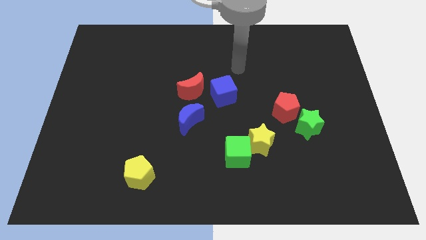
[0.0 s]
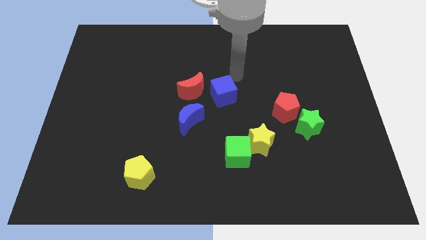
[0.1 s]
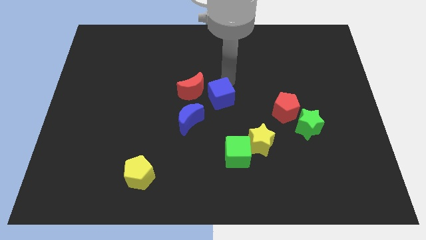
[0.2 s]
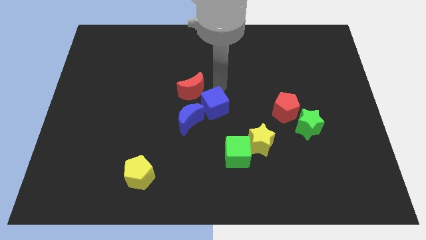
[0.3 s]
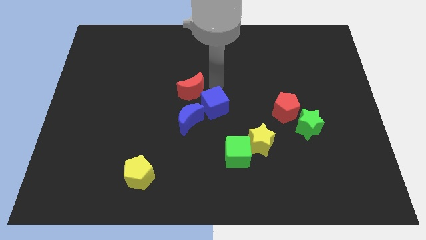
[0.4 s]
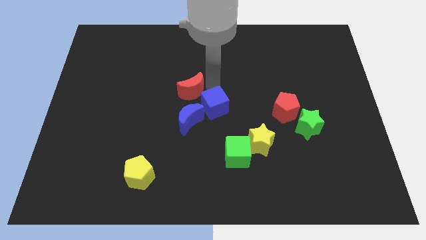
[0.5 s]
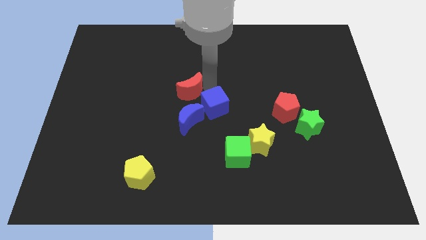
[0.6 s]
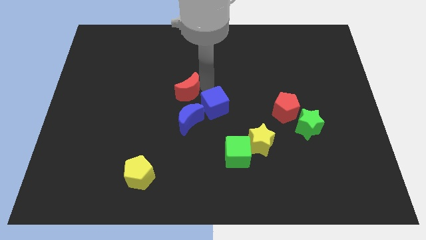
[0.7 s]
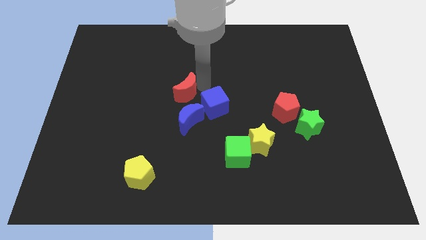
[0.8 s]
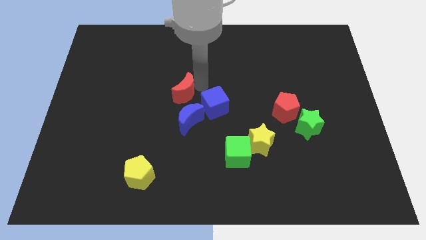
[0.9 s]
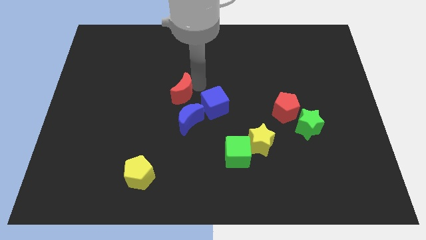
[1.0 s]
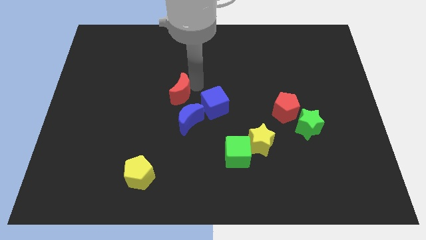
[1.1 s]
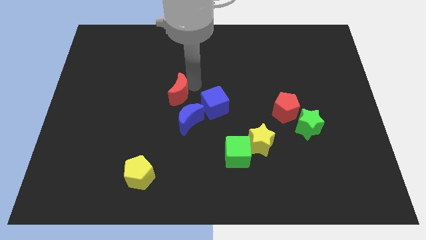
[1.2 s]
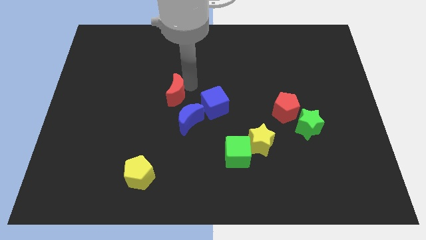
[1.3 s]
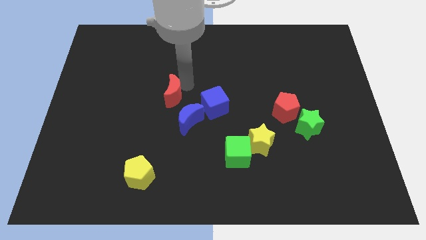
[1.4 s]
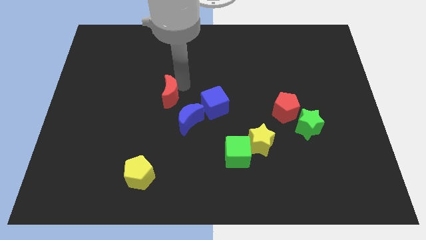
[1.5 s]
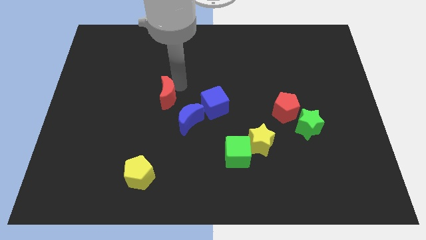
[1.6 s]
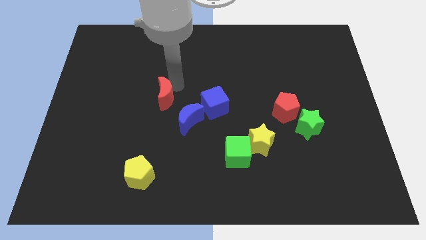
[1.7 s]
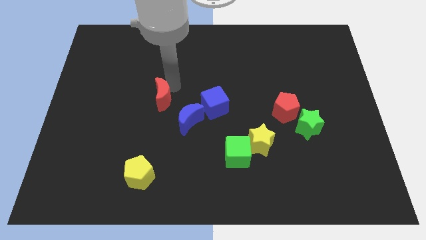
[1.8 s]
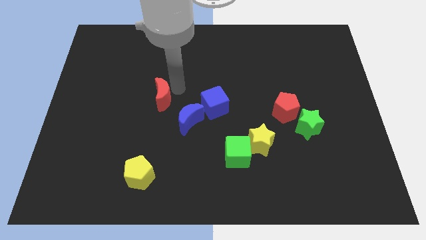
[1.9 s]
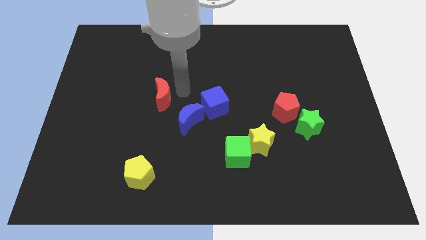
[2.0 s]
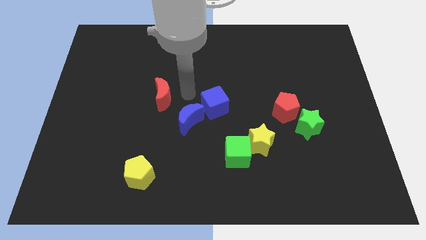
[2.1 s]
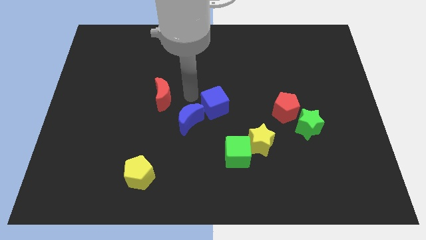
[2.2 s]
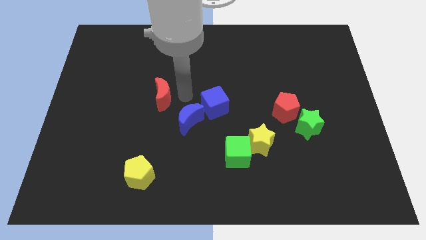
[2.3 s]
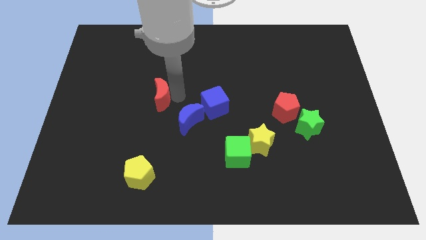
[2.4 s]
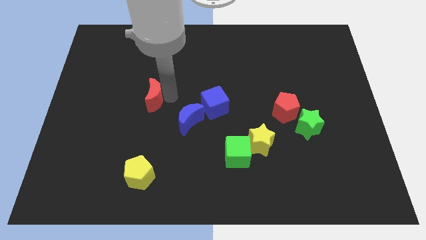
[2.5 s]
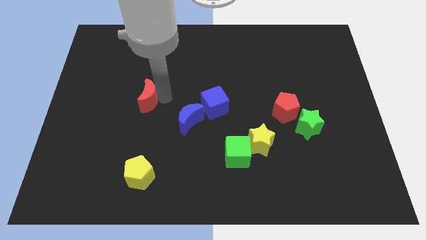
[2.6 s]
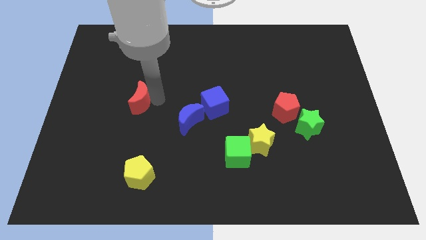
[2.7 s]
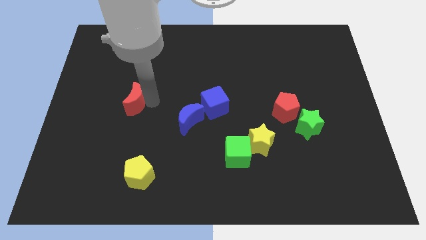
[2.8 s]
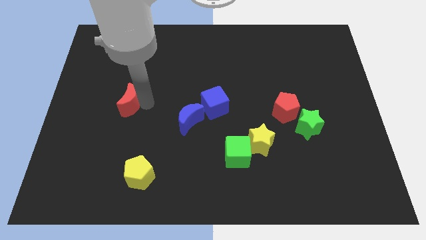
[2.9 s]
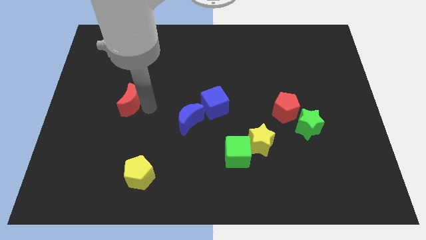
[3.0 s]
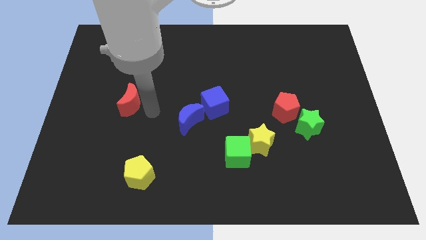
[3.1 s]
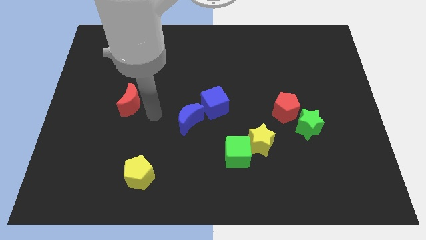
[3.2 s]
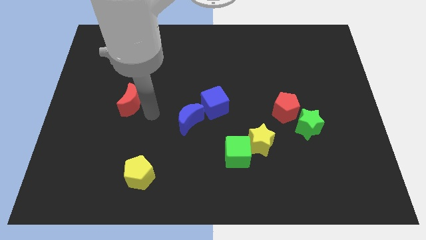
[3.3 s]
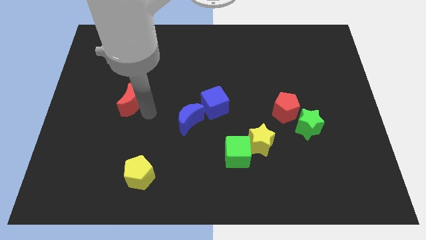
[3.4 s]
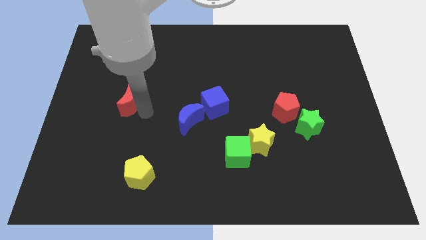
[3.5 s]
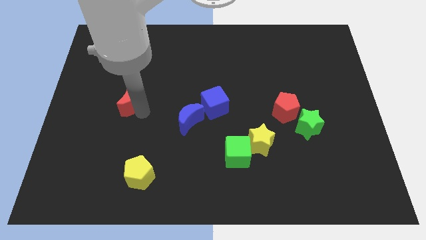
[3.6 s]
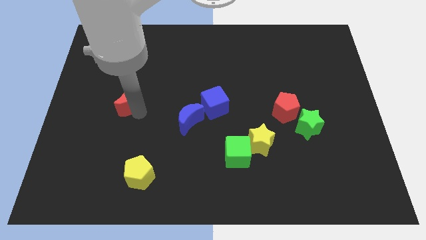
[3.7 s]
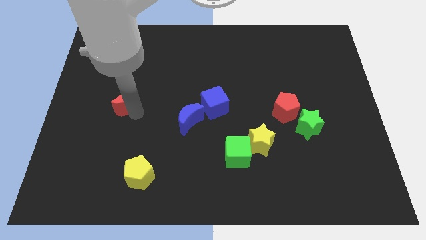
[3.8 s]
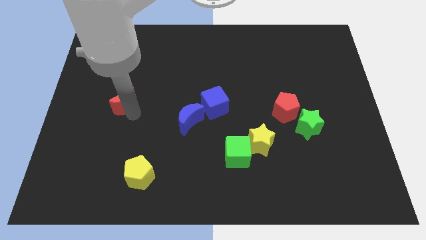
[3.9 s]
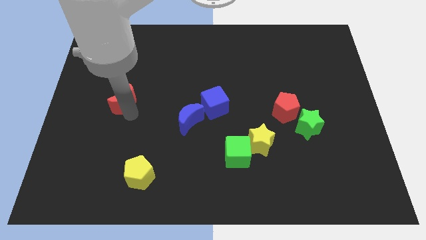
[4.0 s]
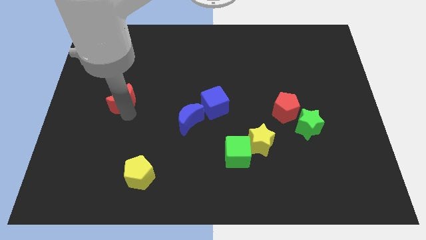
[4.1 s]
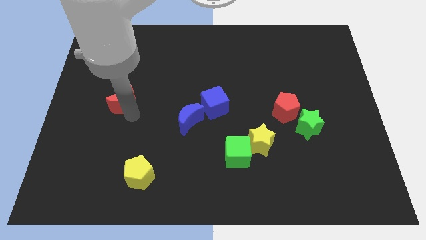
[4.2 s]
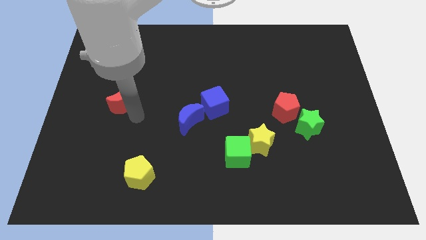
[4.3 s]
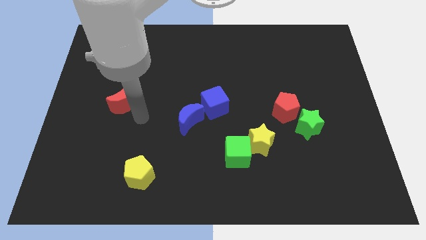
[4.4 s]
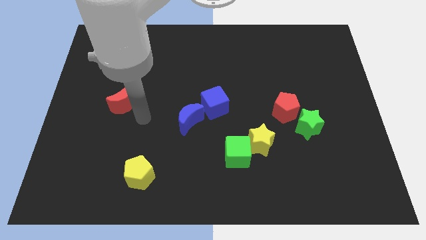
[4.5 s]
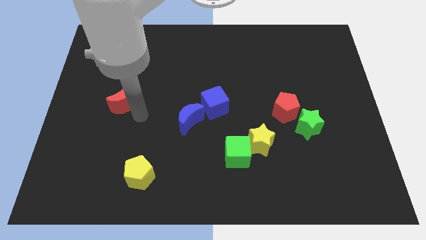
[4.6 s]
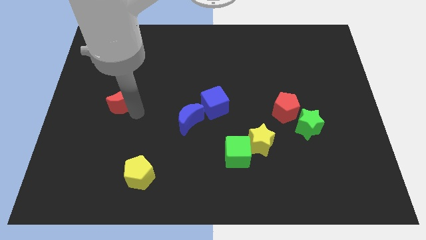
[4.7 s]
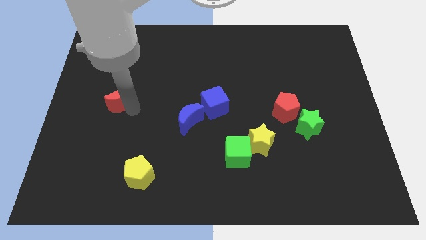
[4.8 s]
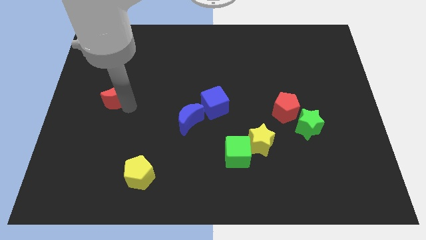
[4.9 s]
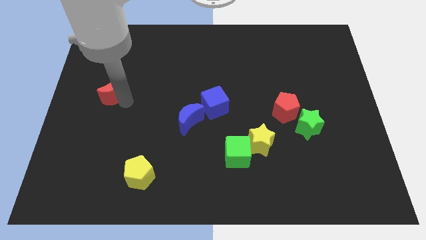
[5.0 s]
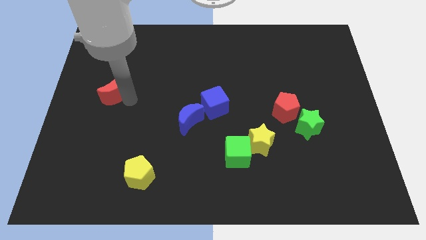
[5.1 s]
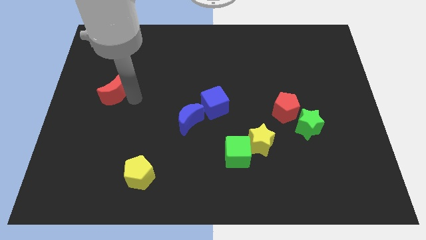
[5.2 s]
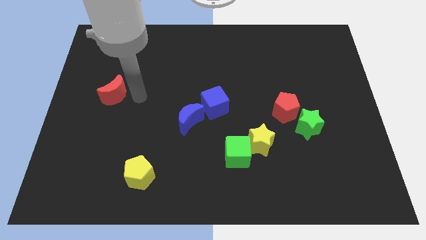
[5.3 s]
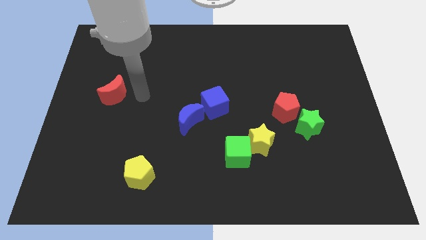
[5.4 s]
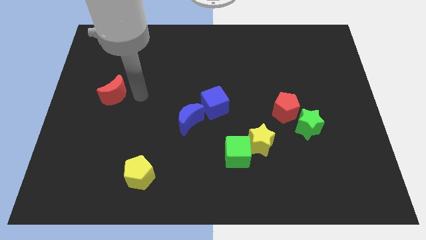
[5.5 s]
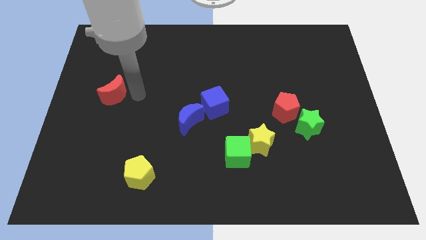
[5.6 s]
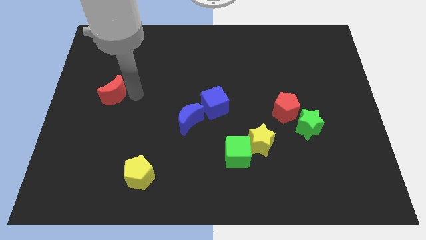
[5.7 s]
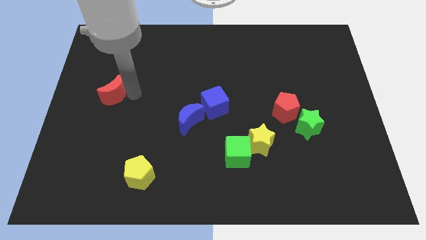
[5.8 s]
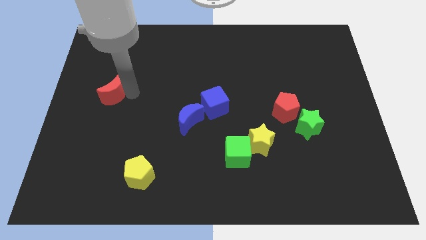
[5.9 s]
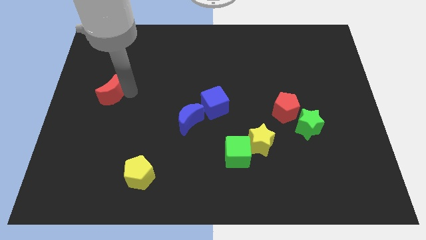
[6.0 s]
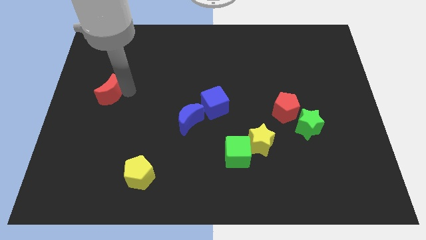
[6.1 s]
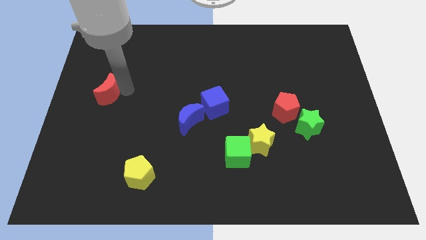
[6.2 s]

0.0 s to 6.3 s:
slide the red moon to the left side
